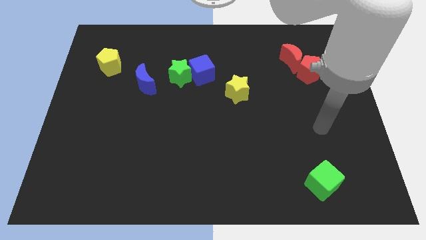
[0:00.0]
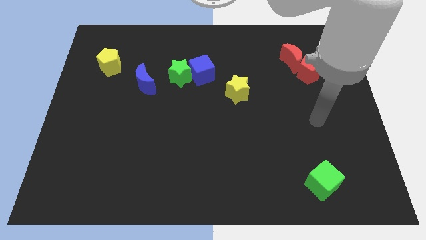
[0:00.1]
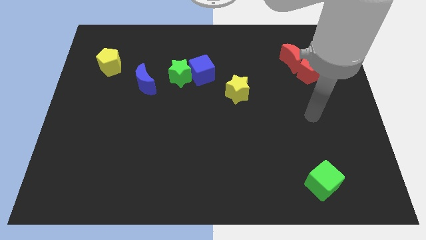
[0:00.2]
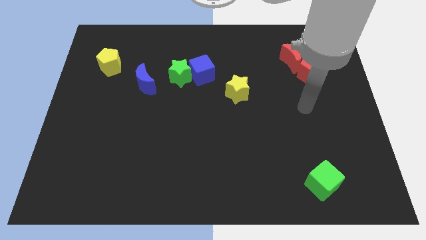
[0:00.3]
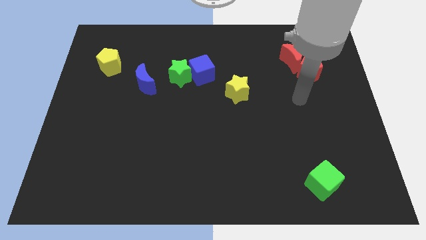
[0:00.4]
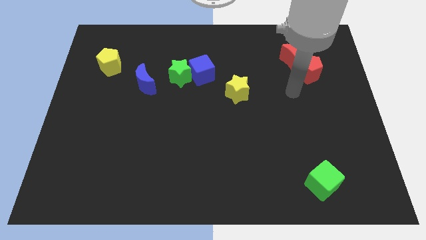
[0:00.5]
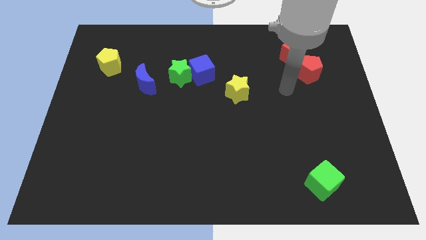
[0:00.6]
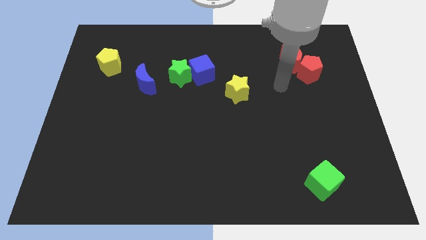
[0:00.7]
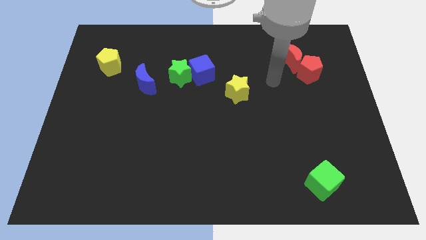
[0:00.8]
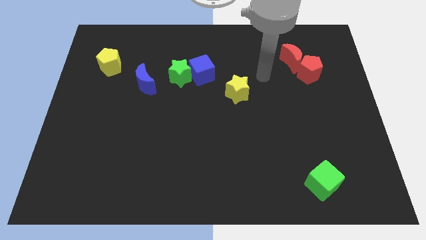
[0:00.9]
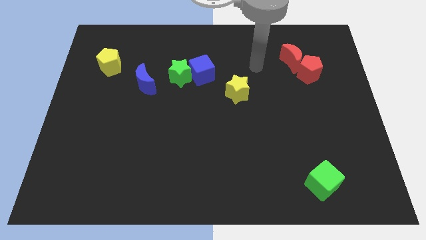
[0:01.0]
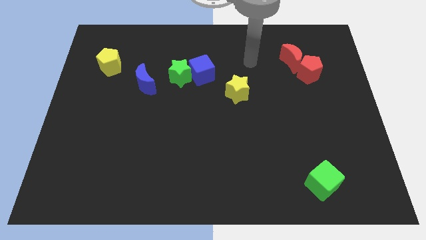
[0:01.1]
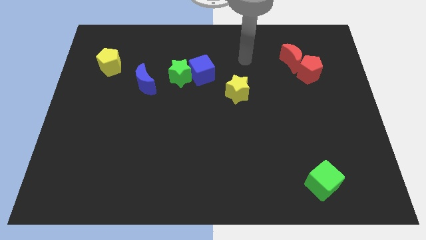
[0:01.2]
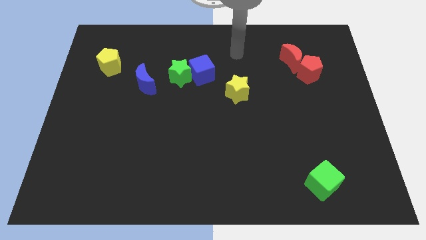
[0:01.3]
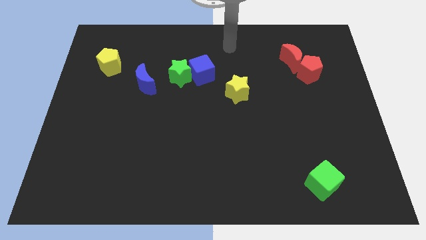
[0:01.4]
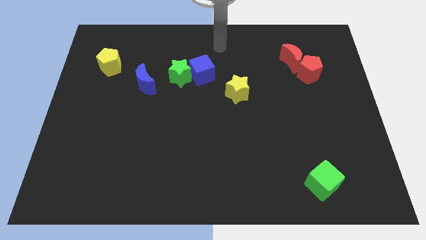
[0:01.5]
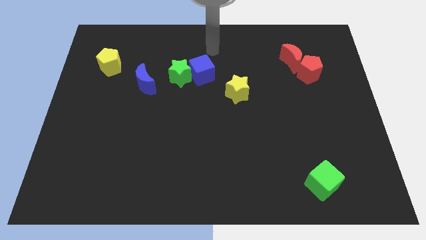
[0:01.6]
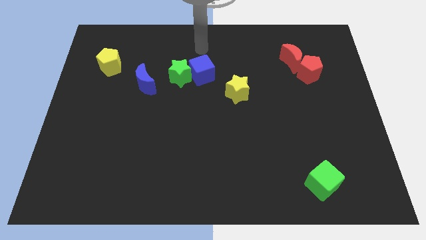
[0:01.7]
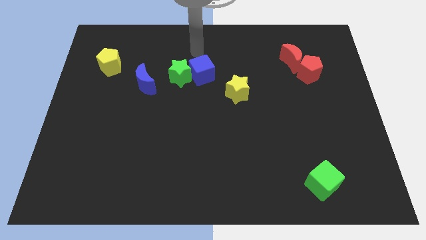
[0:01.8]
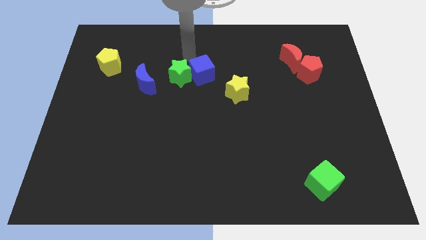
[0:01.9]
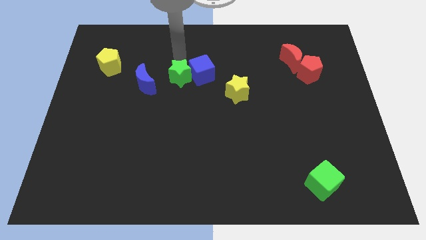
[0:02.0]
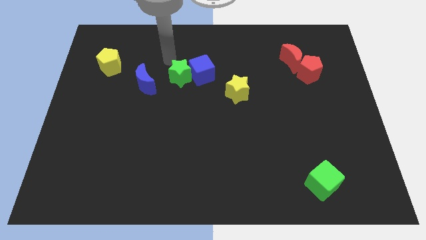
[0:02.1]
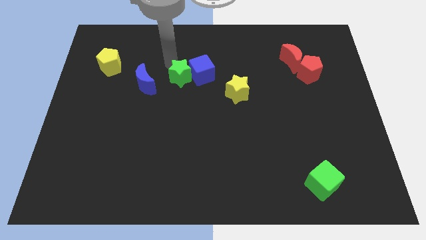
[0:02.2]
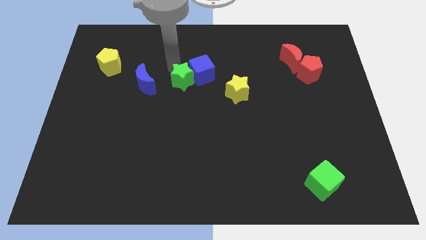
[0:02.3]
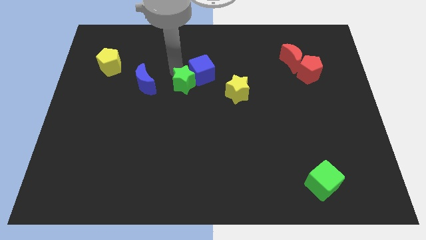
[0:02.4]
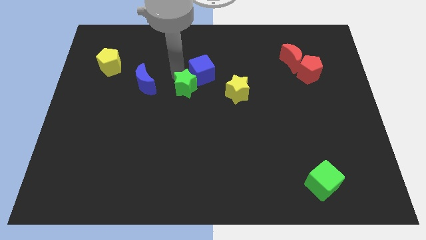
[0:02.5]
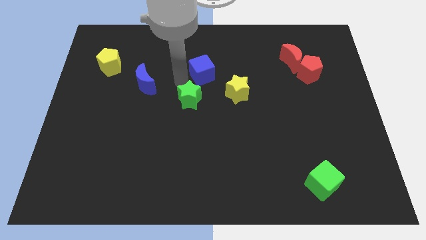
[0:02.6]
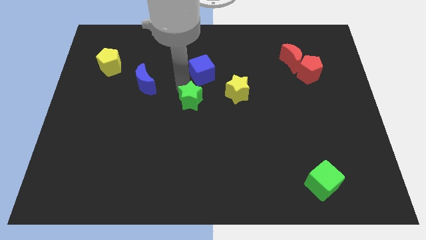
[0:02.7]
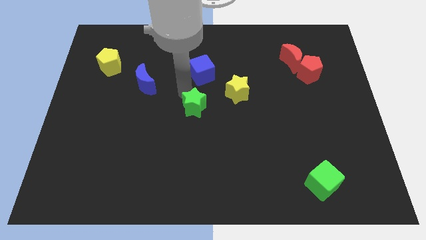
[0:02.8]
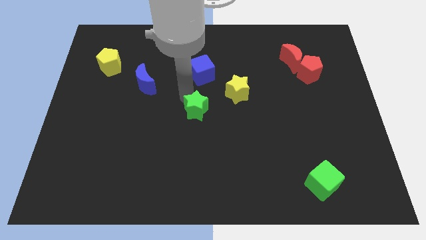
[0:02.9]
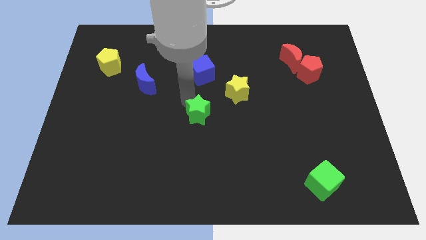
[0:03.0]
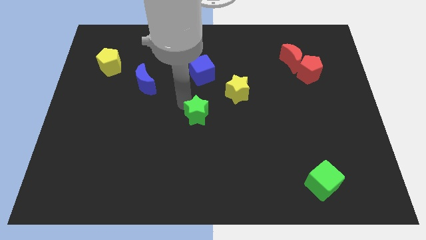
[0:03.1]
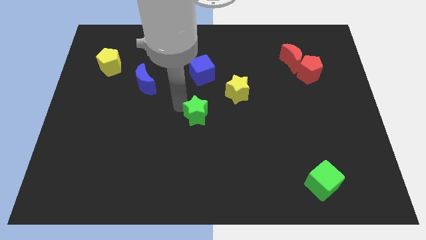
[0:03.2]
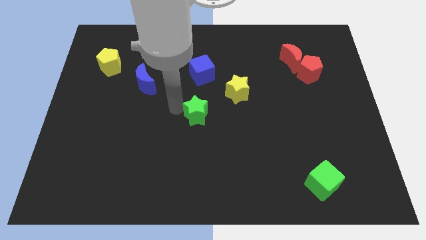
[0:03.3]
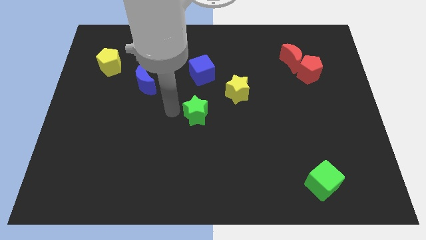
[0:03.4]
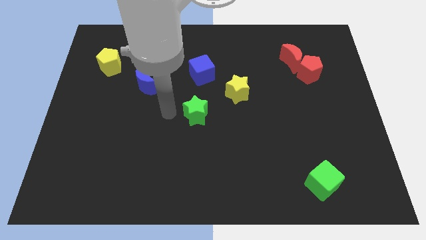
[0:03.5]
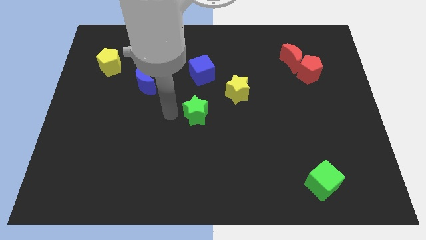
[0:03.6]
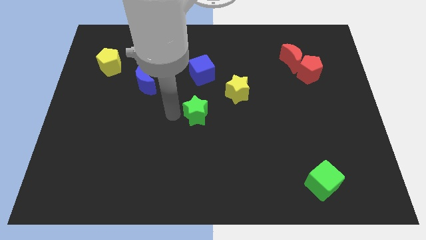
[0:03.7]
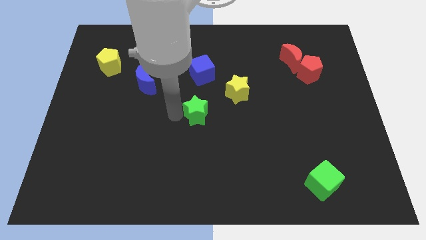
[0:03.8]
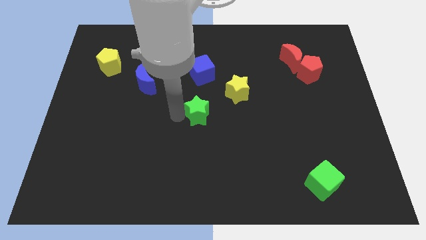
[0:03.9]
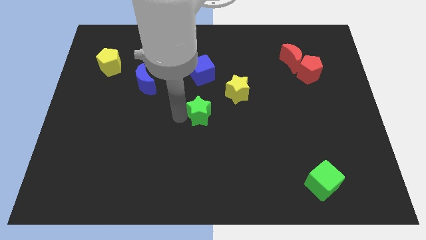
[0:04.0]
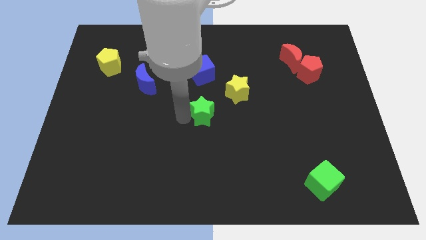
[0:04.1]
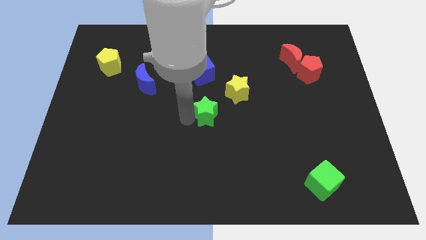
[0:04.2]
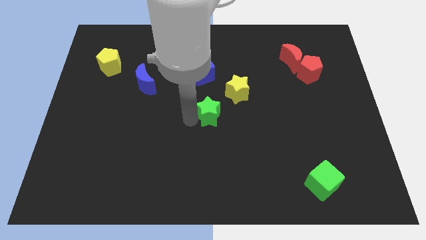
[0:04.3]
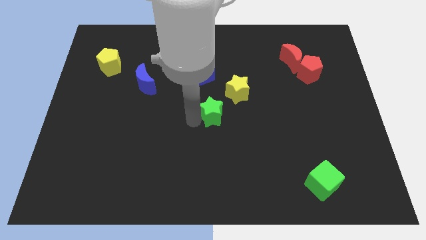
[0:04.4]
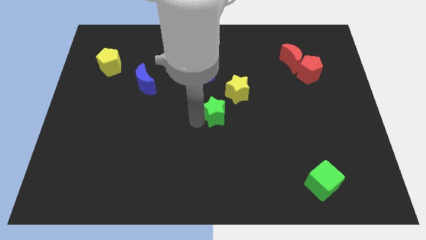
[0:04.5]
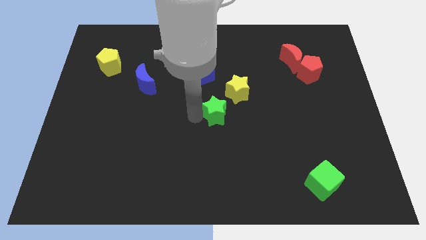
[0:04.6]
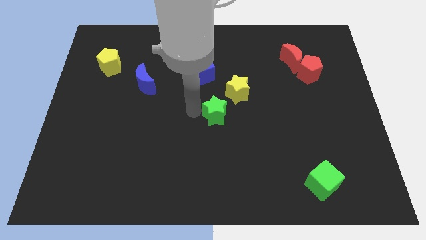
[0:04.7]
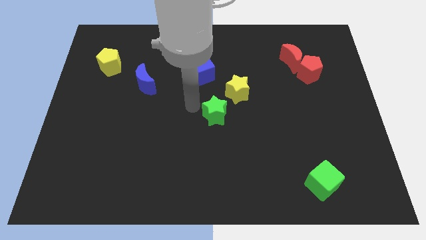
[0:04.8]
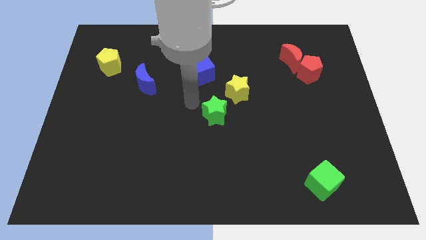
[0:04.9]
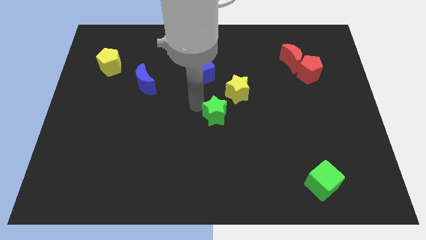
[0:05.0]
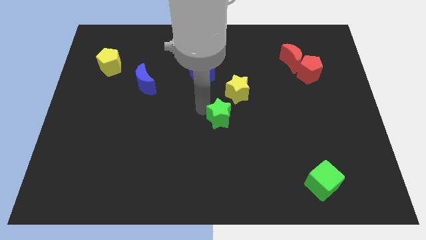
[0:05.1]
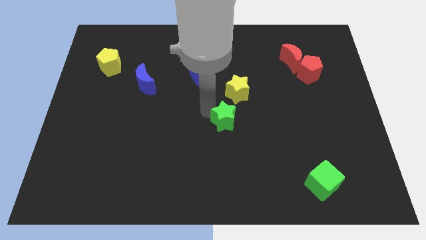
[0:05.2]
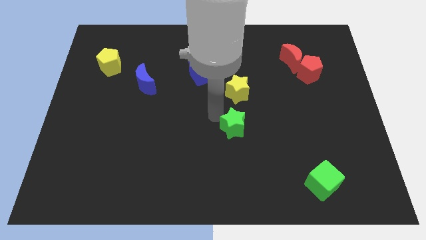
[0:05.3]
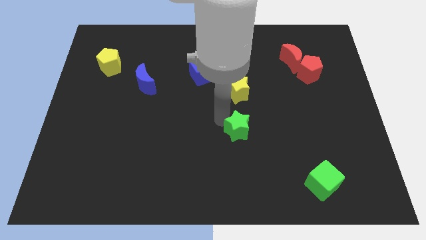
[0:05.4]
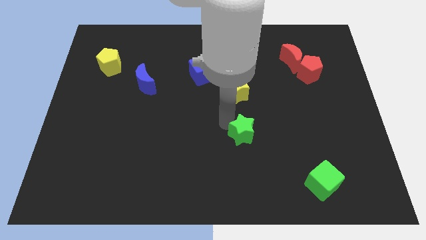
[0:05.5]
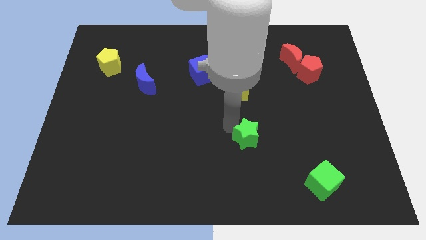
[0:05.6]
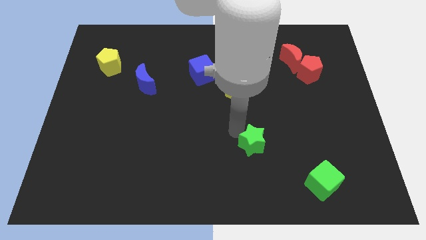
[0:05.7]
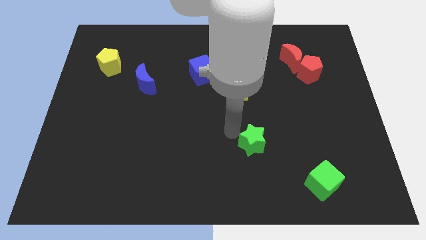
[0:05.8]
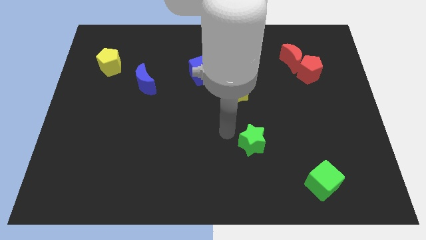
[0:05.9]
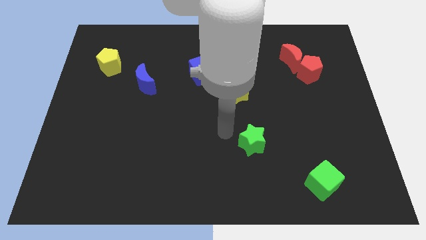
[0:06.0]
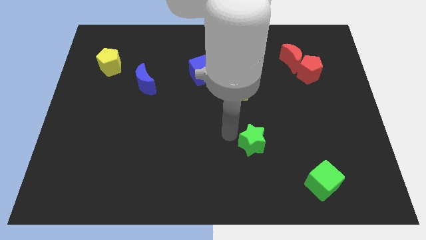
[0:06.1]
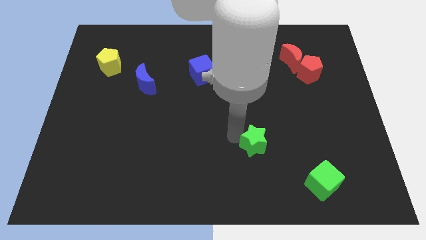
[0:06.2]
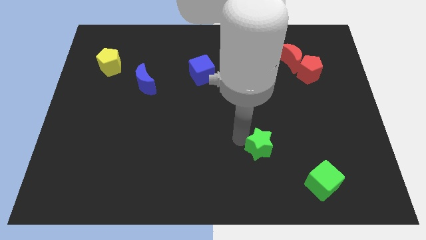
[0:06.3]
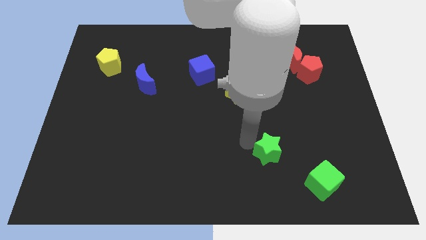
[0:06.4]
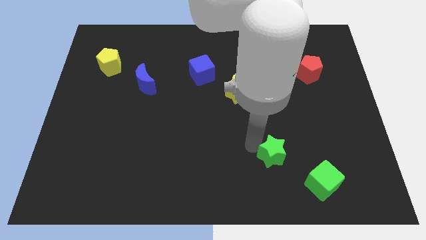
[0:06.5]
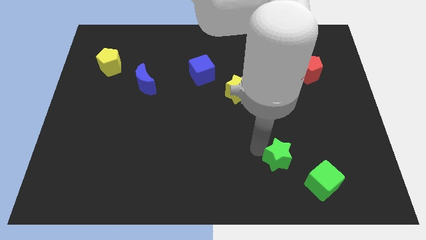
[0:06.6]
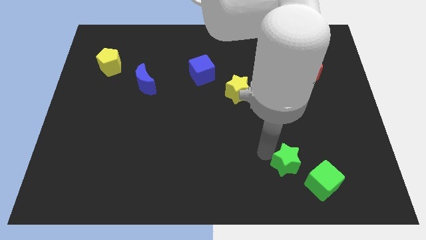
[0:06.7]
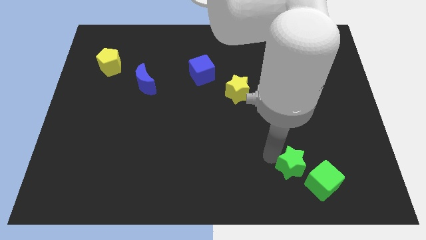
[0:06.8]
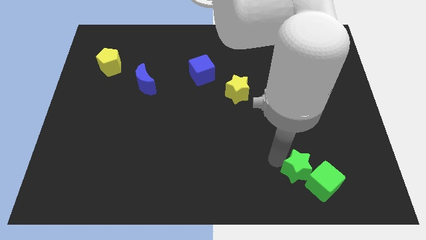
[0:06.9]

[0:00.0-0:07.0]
put the green star to the green cube

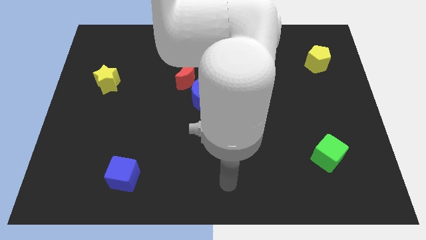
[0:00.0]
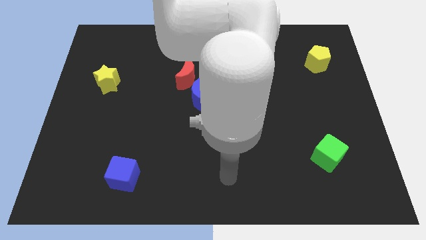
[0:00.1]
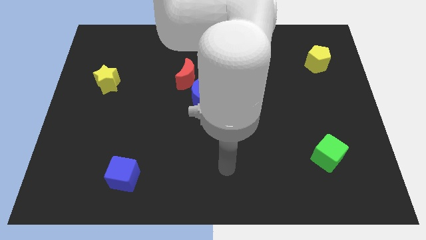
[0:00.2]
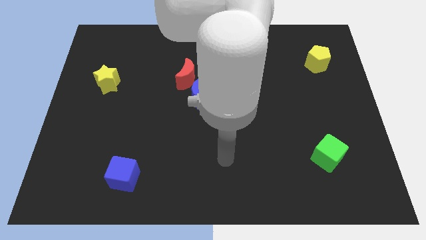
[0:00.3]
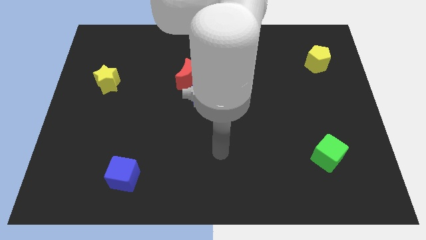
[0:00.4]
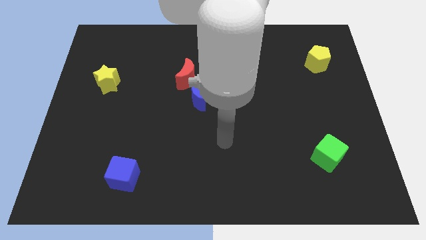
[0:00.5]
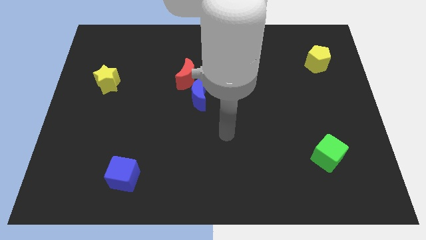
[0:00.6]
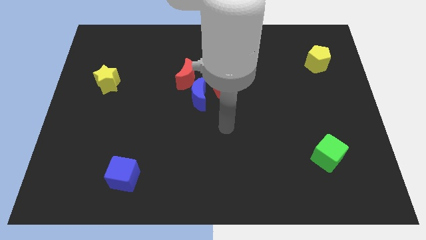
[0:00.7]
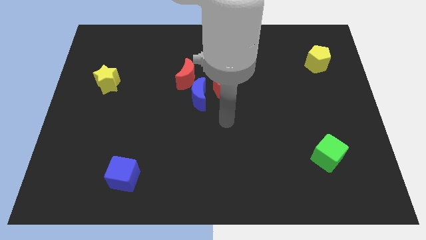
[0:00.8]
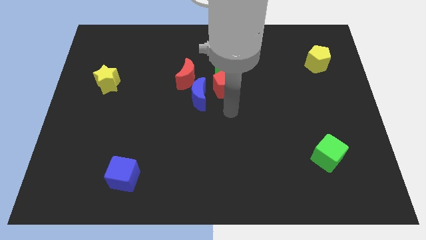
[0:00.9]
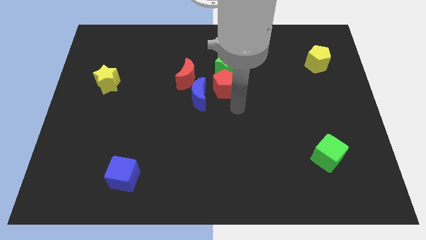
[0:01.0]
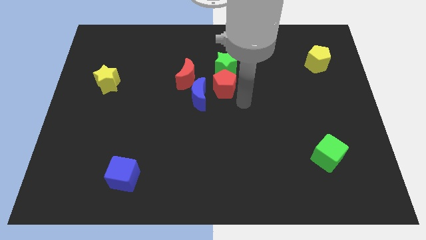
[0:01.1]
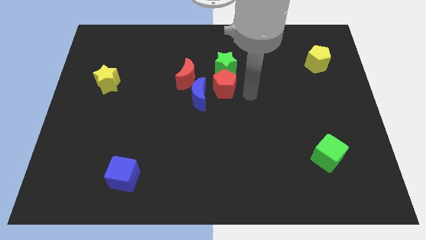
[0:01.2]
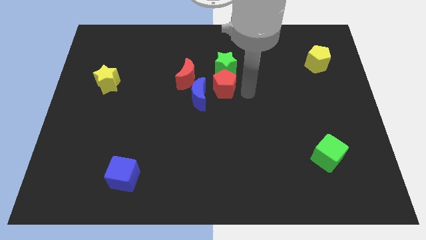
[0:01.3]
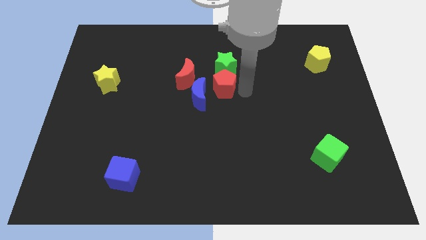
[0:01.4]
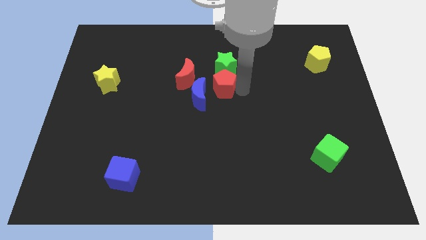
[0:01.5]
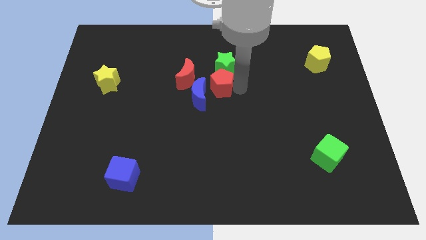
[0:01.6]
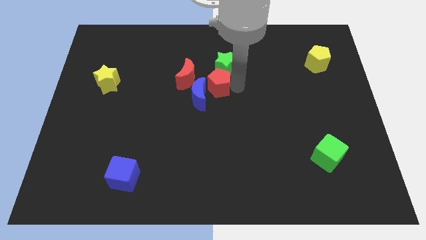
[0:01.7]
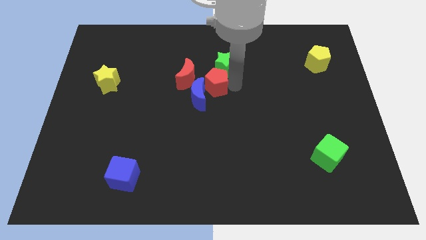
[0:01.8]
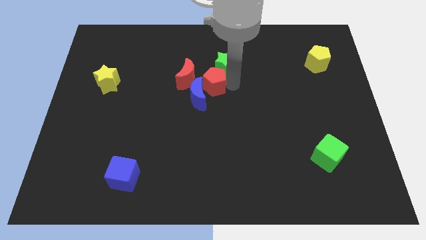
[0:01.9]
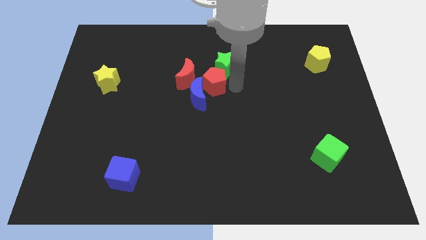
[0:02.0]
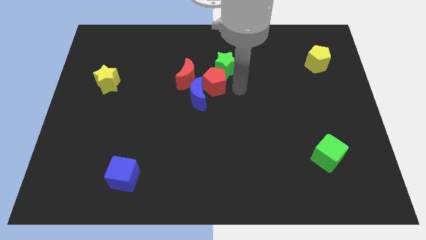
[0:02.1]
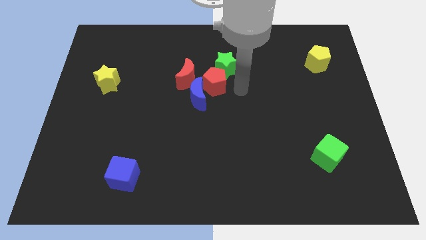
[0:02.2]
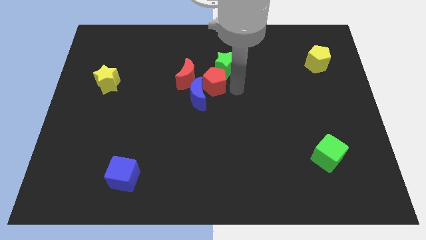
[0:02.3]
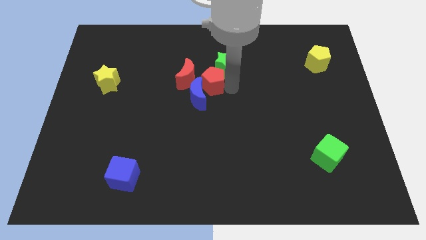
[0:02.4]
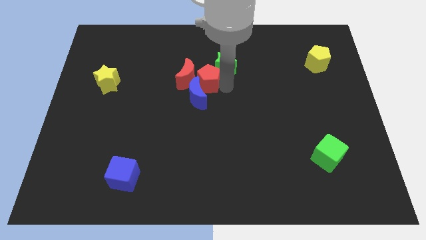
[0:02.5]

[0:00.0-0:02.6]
put the red pentagon next to the red moon
